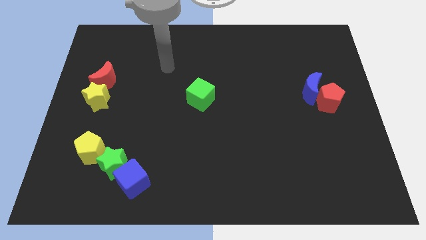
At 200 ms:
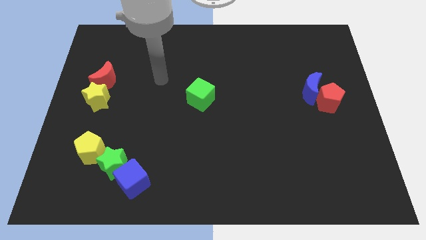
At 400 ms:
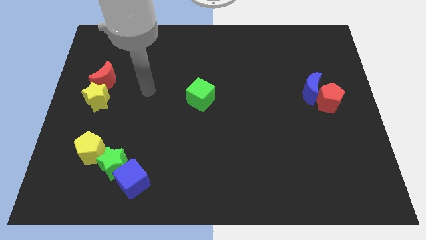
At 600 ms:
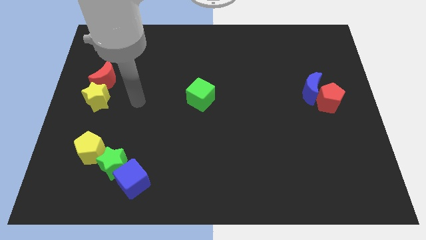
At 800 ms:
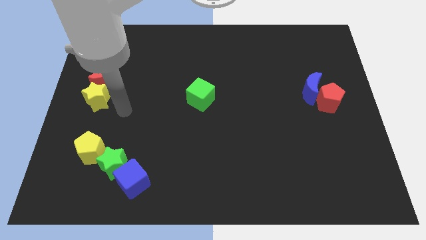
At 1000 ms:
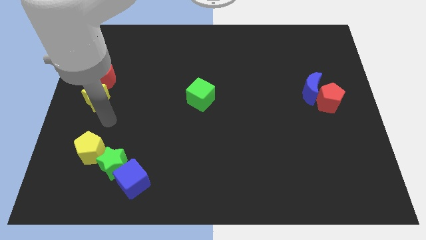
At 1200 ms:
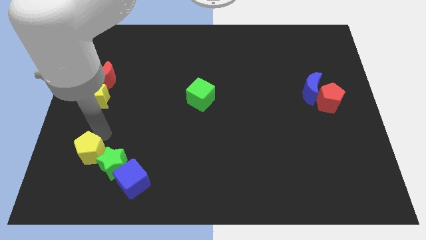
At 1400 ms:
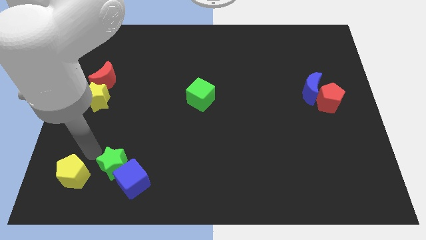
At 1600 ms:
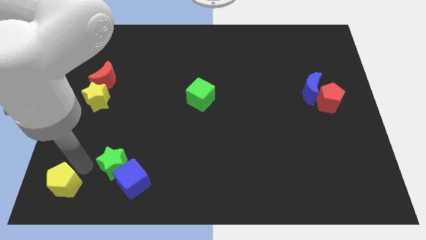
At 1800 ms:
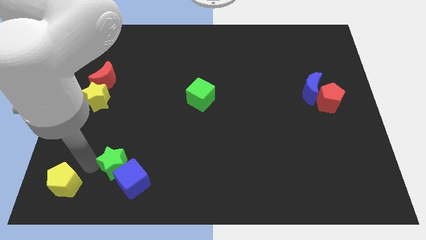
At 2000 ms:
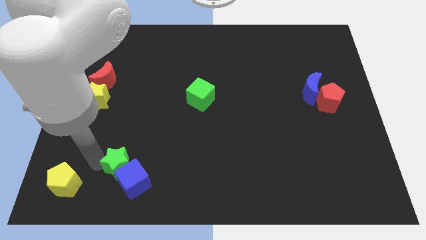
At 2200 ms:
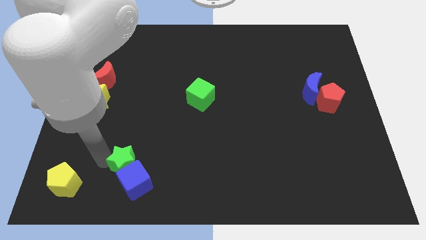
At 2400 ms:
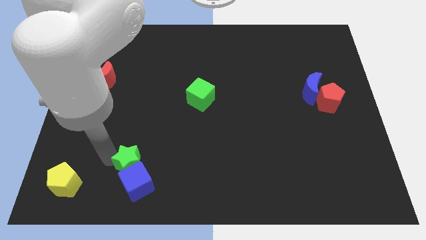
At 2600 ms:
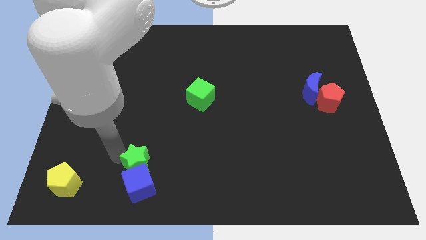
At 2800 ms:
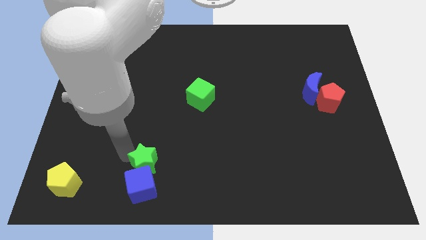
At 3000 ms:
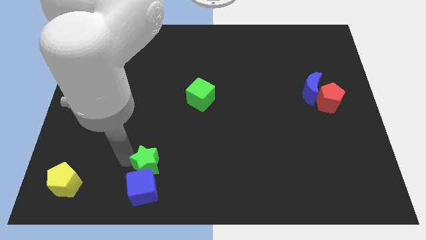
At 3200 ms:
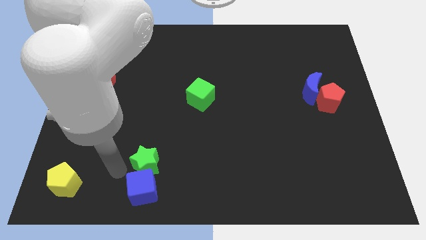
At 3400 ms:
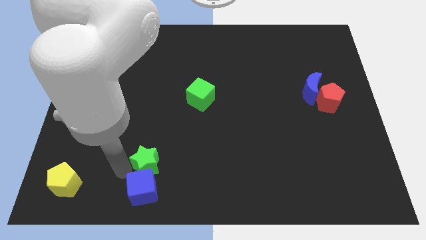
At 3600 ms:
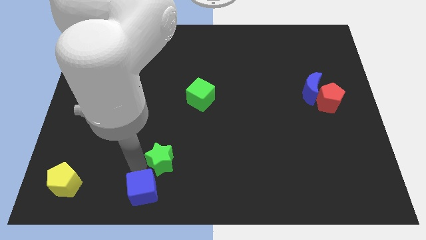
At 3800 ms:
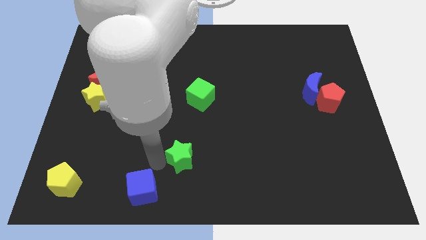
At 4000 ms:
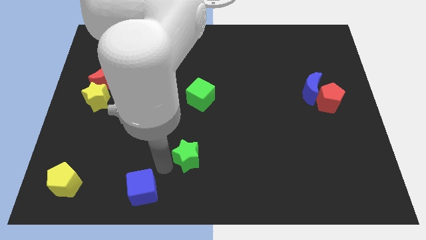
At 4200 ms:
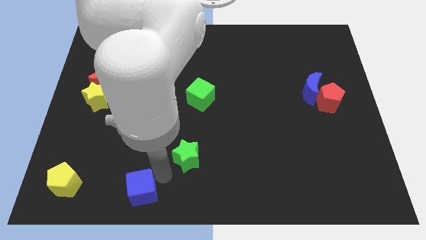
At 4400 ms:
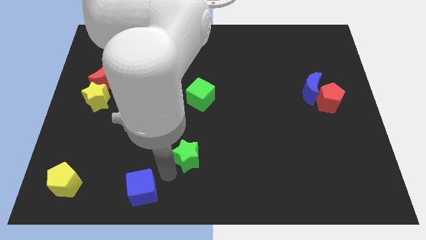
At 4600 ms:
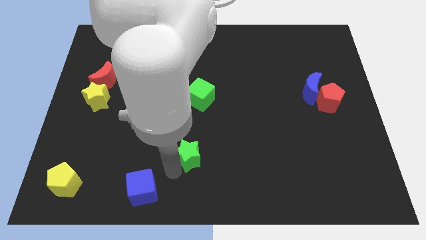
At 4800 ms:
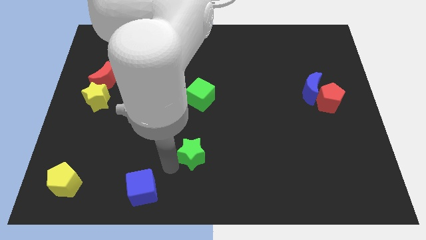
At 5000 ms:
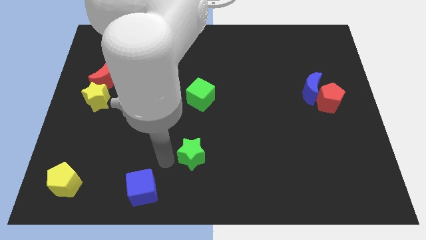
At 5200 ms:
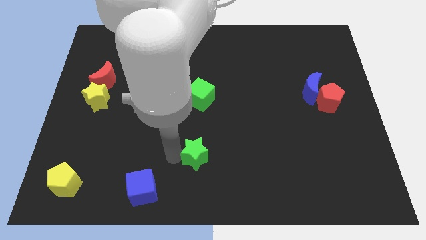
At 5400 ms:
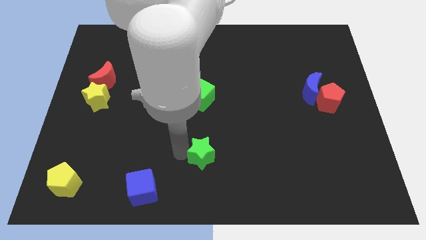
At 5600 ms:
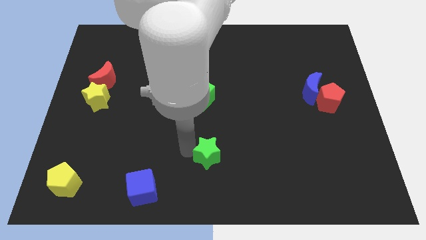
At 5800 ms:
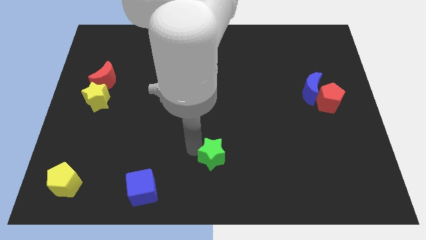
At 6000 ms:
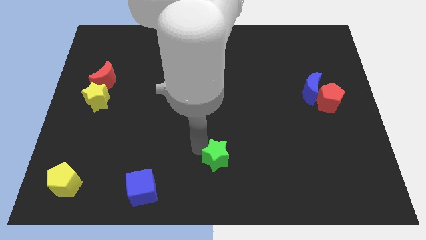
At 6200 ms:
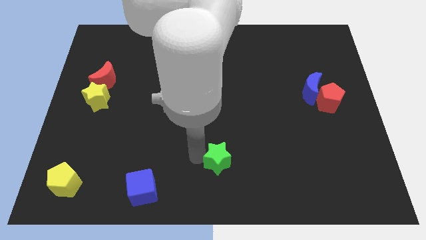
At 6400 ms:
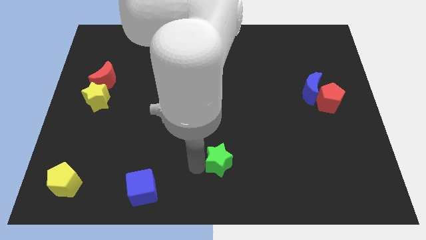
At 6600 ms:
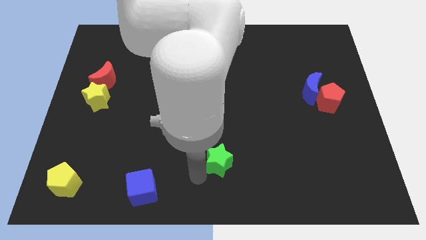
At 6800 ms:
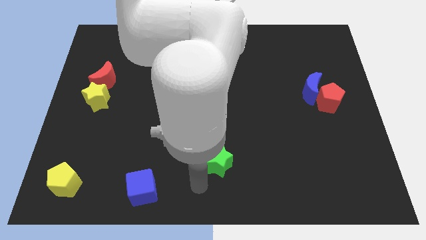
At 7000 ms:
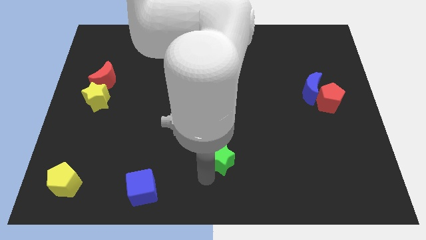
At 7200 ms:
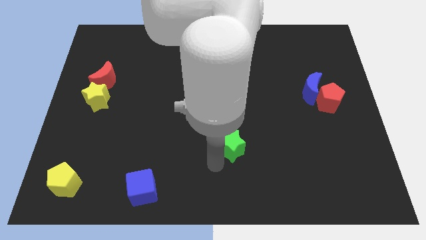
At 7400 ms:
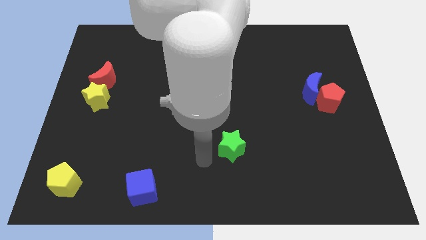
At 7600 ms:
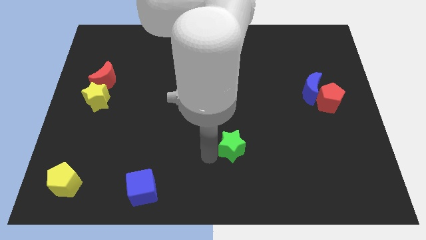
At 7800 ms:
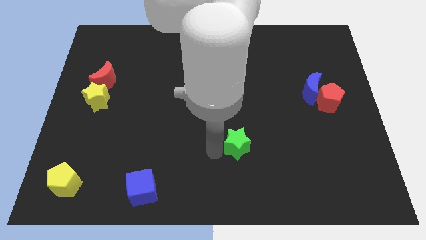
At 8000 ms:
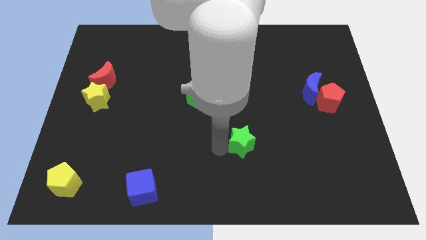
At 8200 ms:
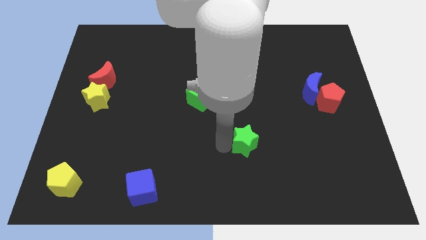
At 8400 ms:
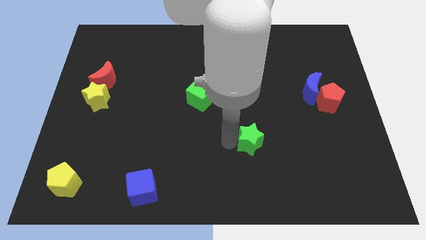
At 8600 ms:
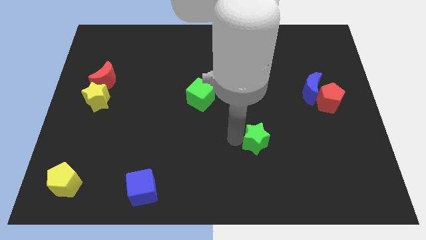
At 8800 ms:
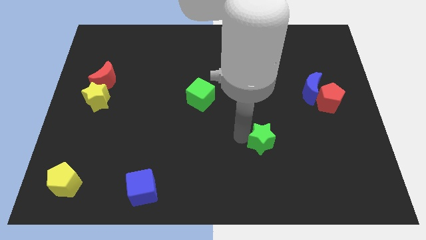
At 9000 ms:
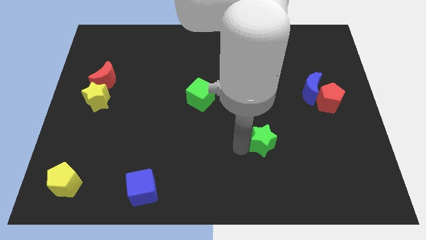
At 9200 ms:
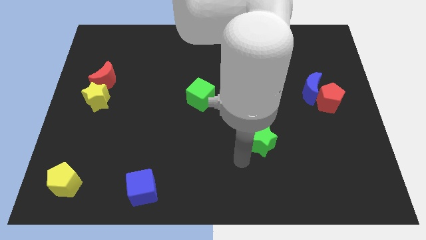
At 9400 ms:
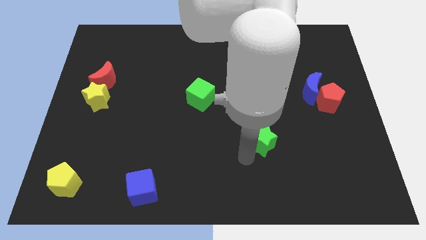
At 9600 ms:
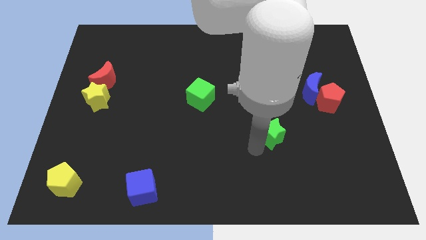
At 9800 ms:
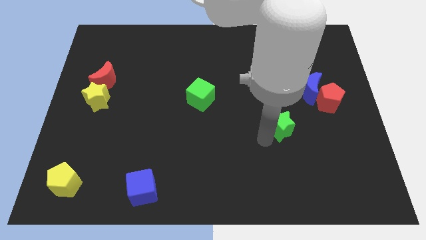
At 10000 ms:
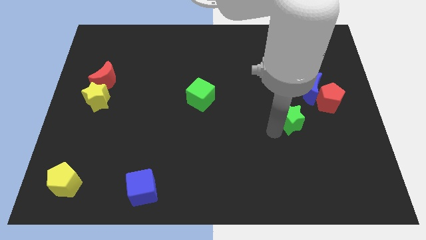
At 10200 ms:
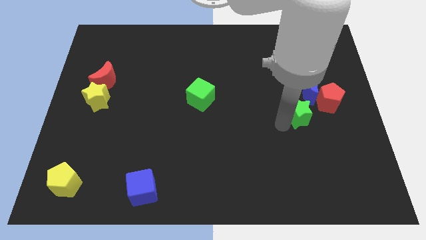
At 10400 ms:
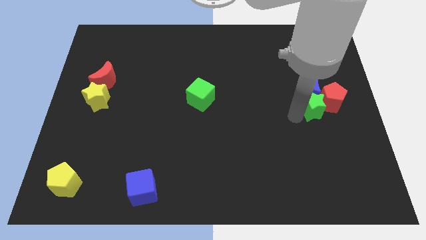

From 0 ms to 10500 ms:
move the green star to the red pentagon

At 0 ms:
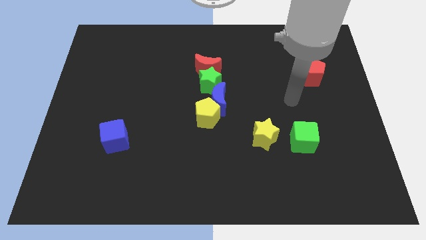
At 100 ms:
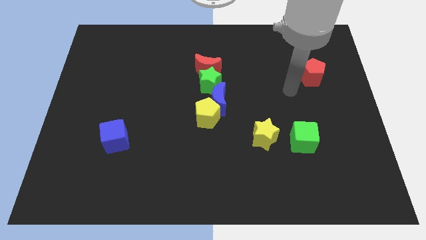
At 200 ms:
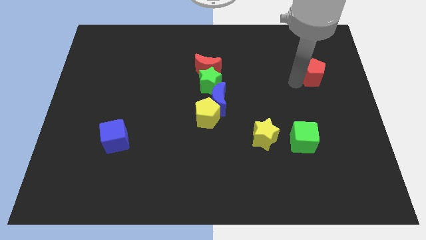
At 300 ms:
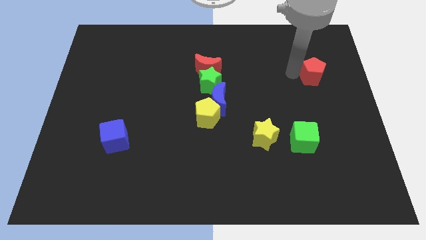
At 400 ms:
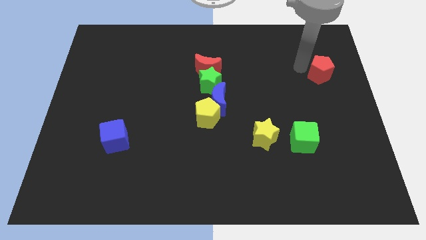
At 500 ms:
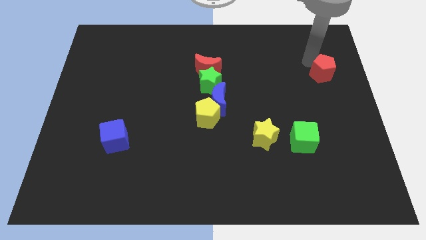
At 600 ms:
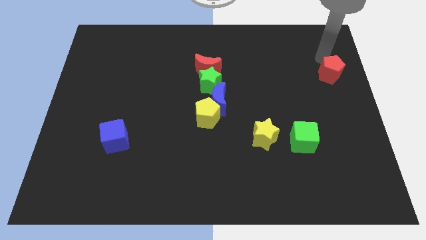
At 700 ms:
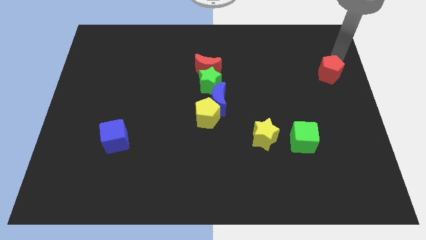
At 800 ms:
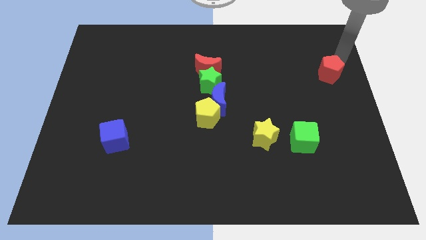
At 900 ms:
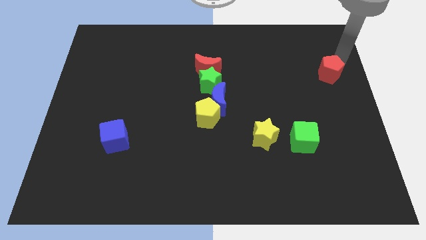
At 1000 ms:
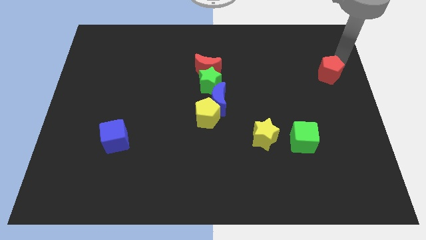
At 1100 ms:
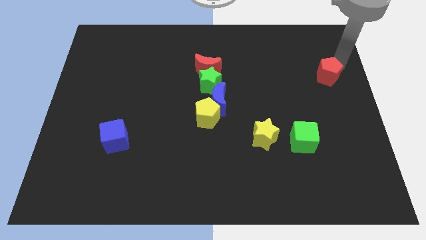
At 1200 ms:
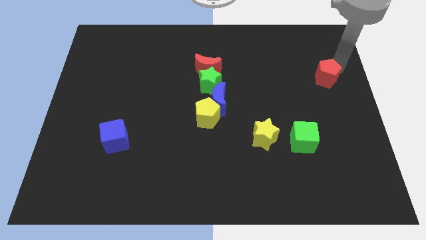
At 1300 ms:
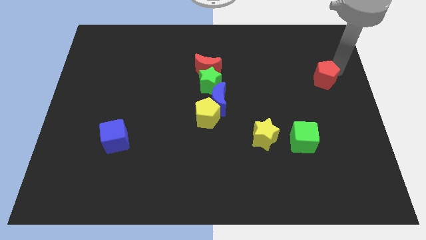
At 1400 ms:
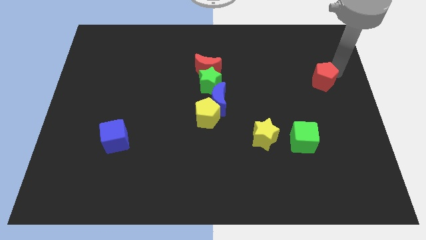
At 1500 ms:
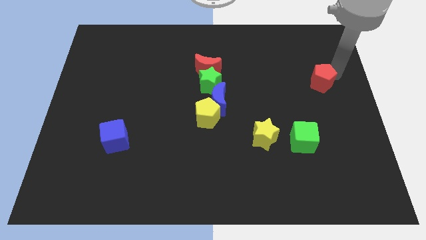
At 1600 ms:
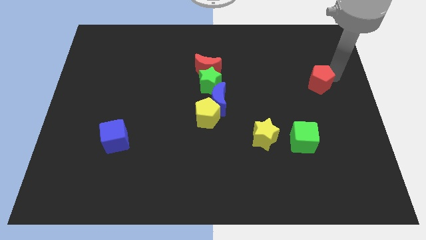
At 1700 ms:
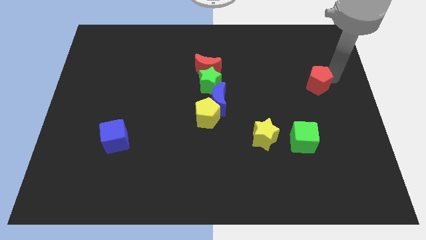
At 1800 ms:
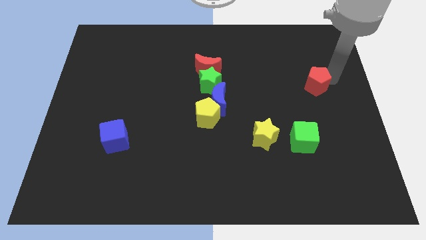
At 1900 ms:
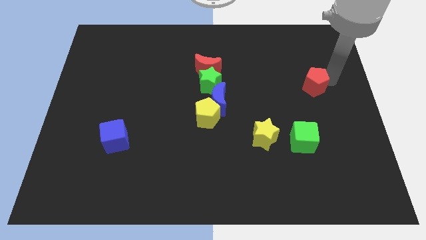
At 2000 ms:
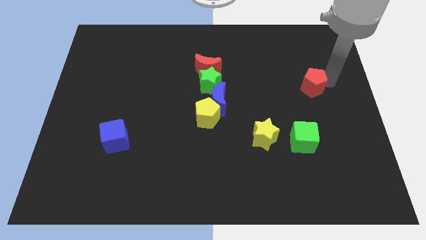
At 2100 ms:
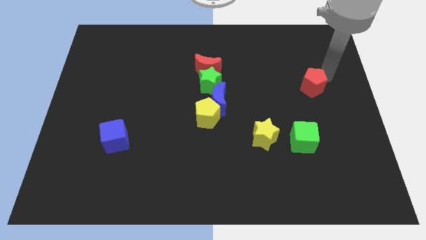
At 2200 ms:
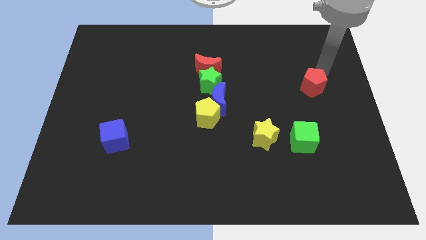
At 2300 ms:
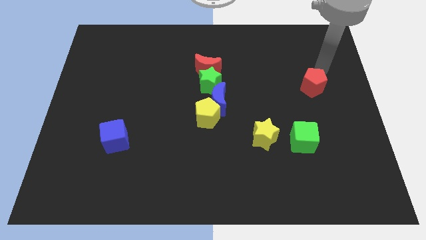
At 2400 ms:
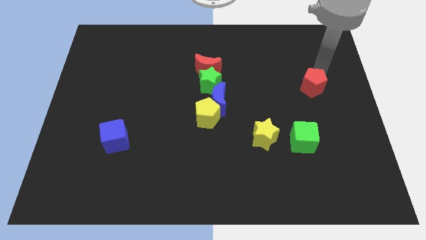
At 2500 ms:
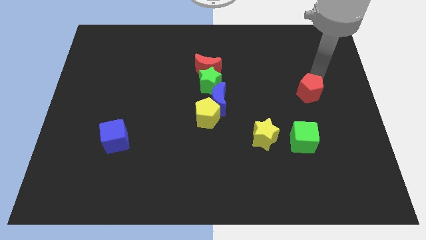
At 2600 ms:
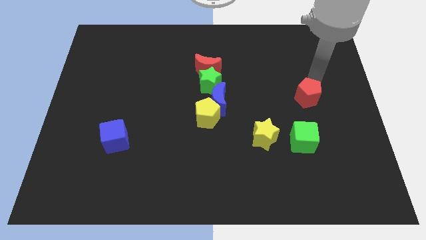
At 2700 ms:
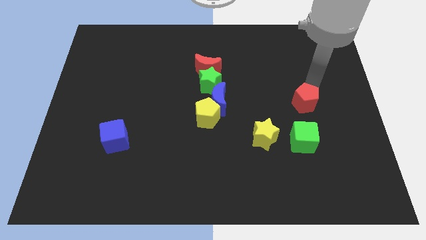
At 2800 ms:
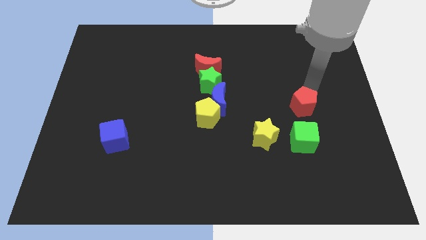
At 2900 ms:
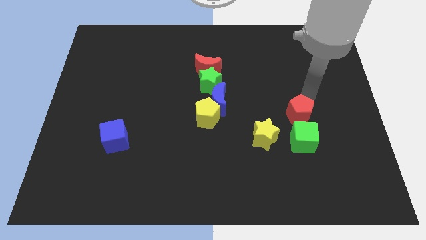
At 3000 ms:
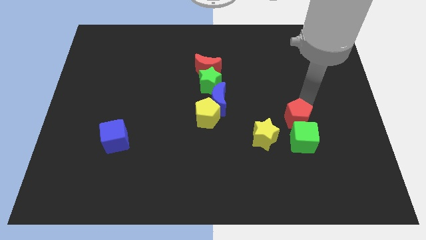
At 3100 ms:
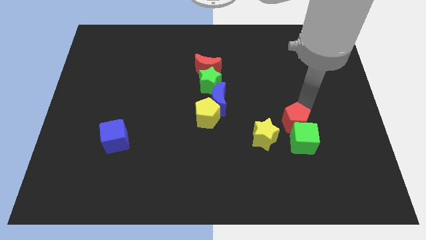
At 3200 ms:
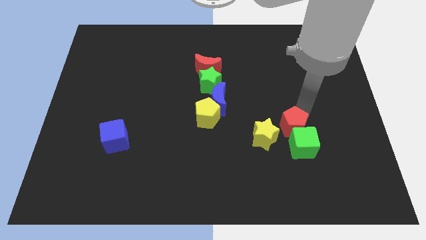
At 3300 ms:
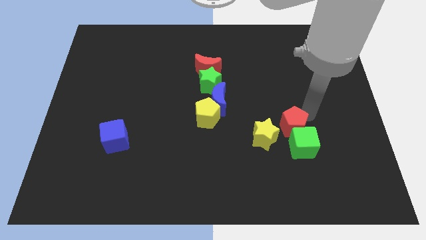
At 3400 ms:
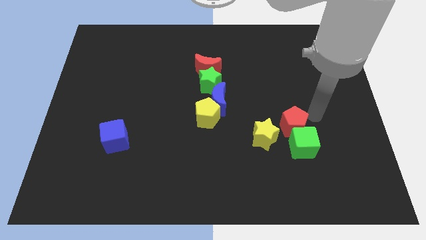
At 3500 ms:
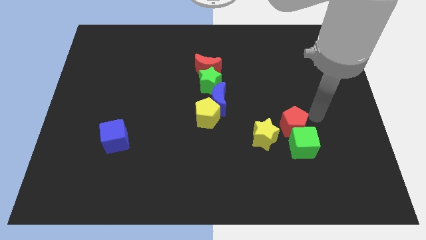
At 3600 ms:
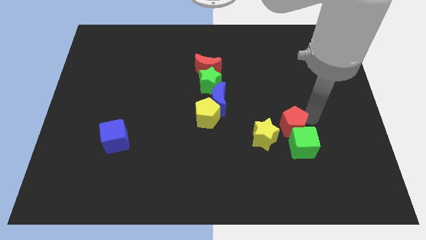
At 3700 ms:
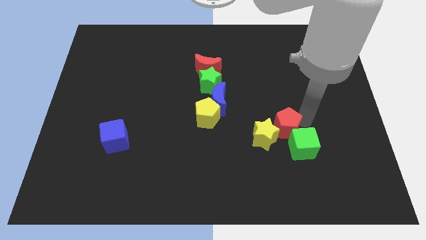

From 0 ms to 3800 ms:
move the red pentagon towards the yellow star
